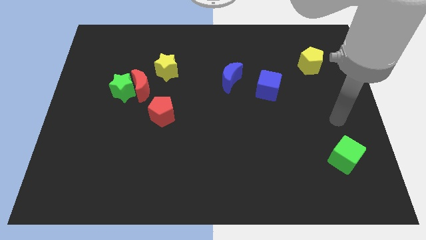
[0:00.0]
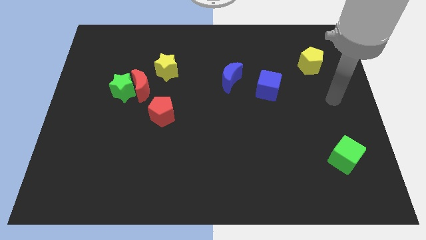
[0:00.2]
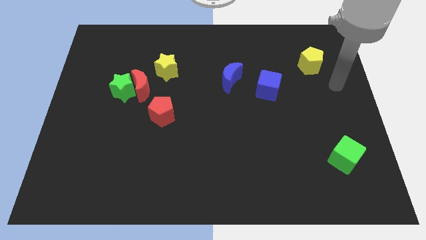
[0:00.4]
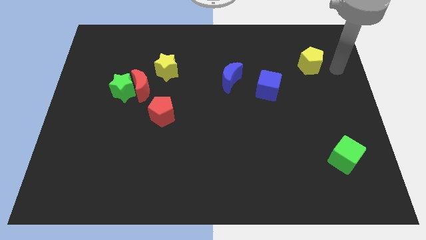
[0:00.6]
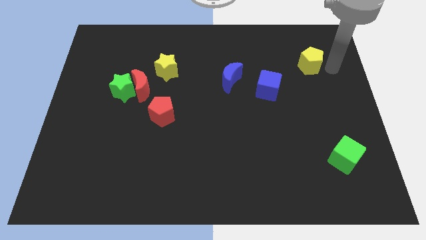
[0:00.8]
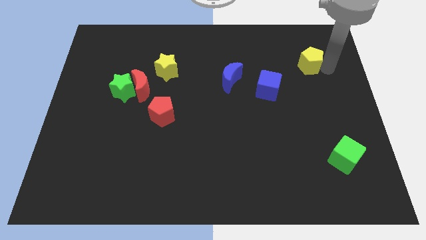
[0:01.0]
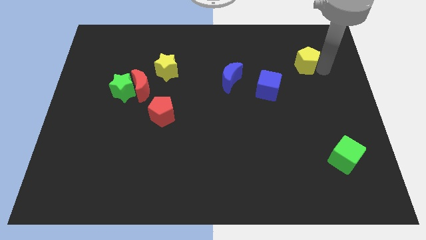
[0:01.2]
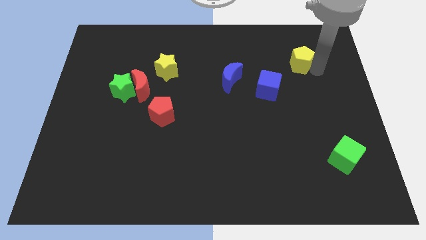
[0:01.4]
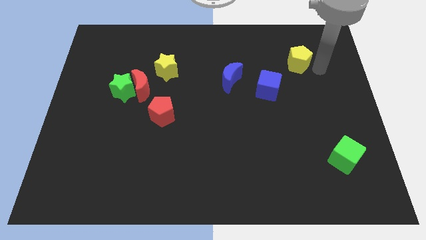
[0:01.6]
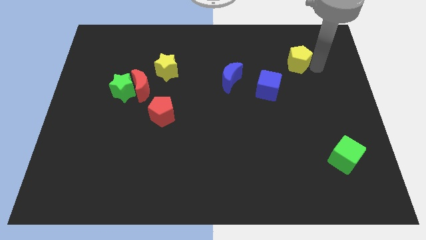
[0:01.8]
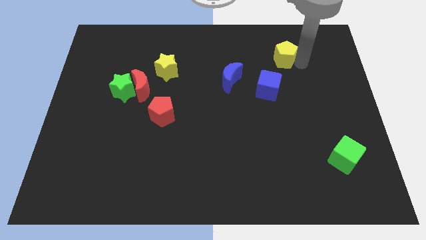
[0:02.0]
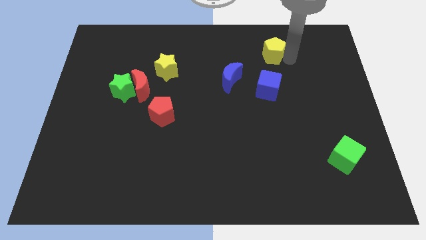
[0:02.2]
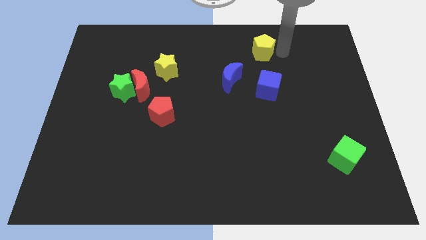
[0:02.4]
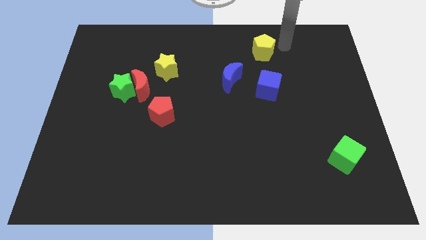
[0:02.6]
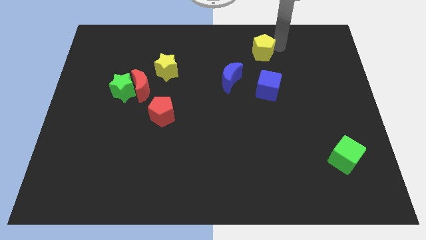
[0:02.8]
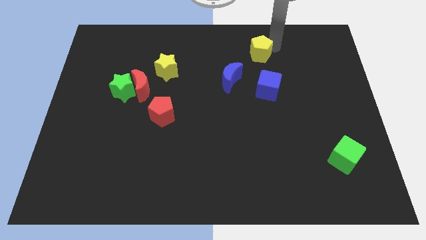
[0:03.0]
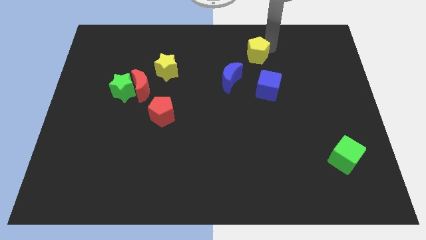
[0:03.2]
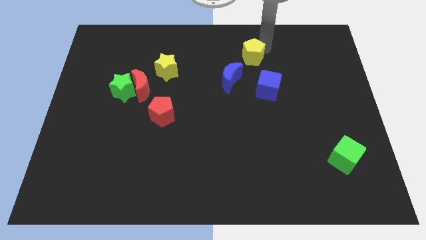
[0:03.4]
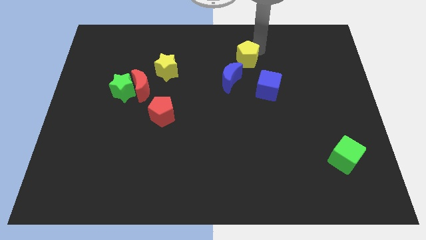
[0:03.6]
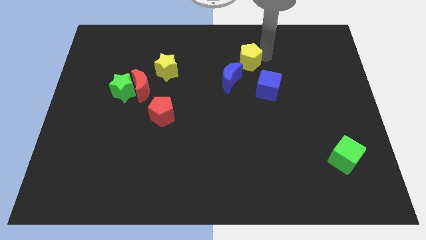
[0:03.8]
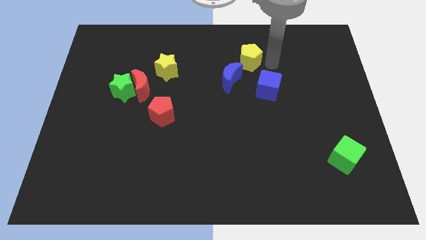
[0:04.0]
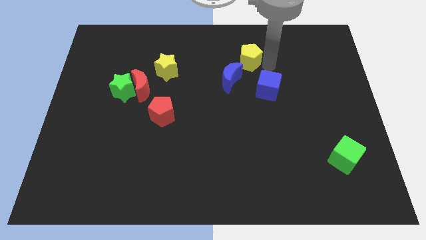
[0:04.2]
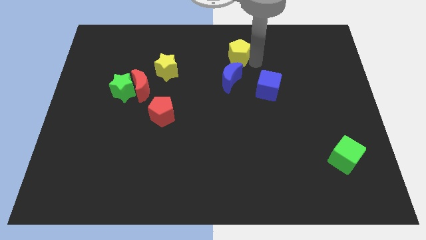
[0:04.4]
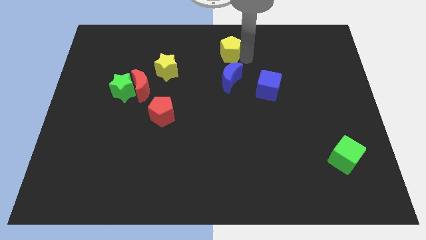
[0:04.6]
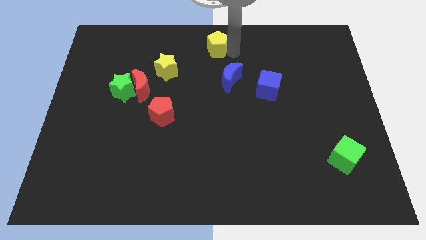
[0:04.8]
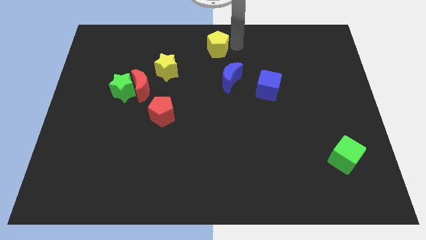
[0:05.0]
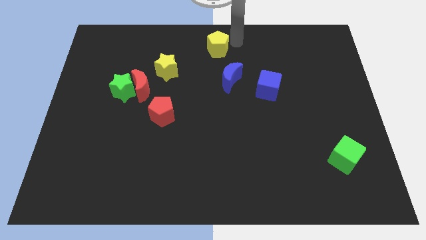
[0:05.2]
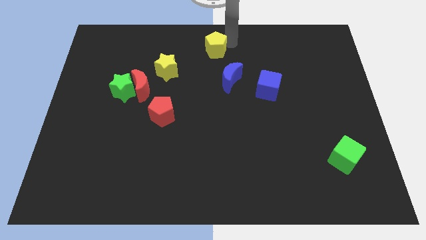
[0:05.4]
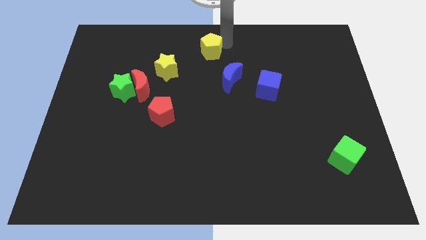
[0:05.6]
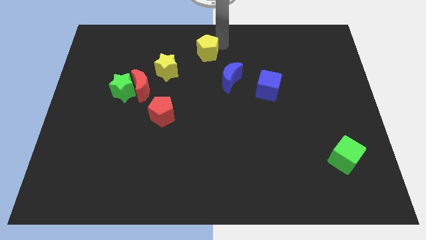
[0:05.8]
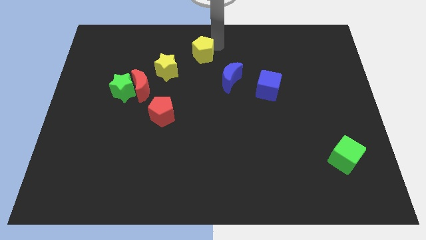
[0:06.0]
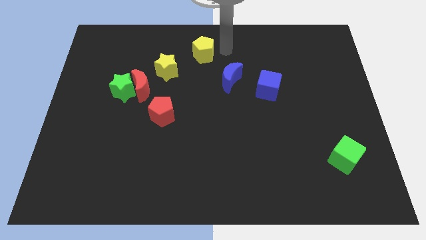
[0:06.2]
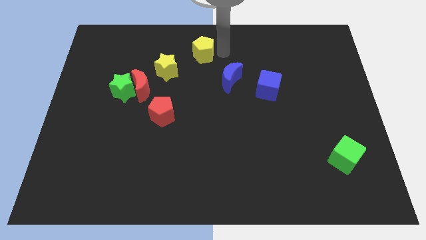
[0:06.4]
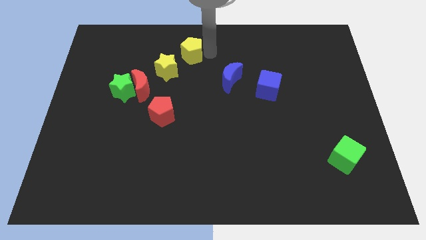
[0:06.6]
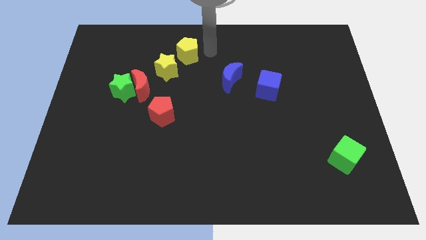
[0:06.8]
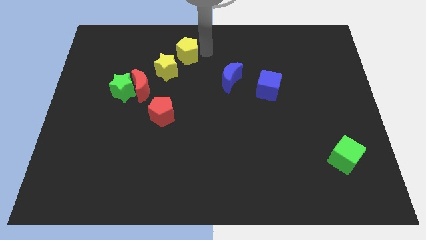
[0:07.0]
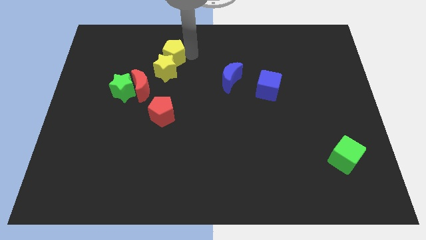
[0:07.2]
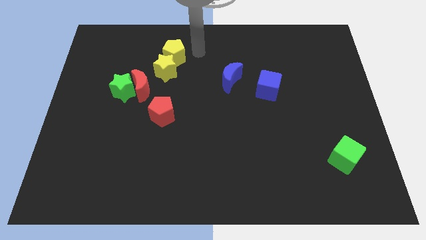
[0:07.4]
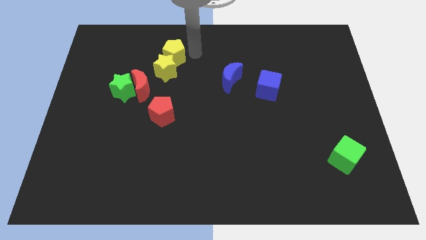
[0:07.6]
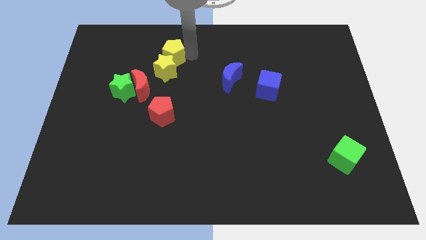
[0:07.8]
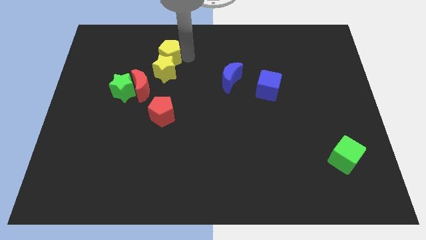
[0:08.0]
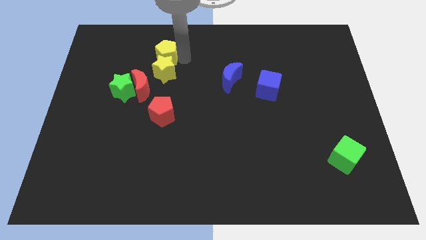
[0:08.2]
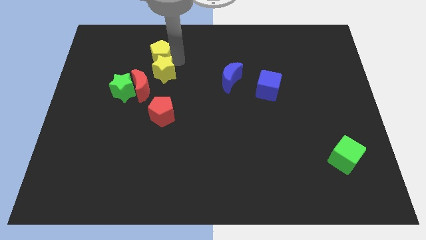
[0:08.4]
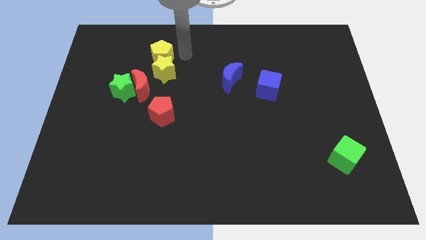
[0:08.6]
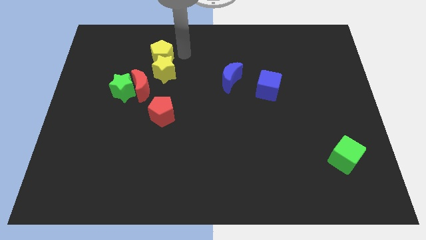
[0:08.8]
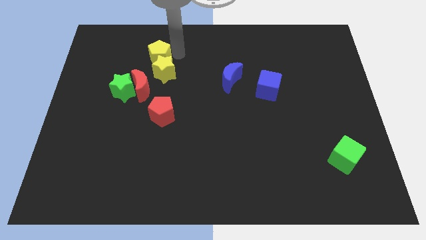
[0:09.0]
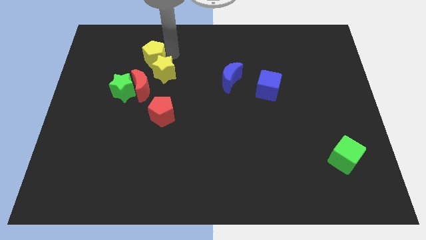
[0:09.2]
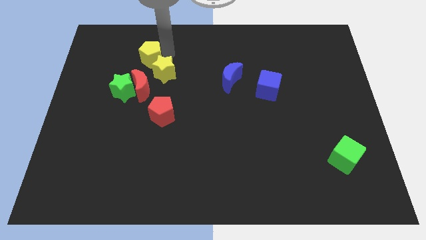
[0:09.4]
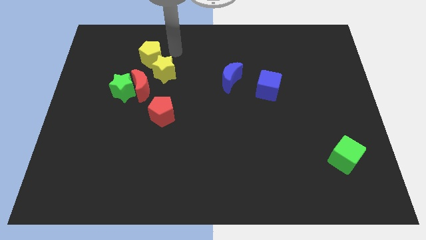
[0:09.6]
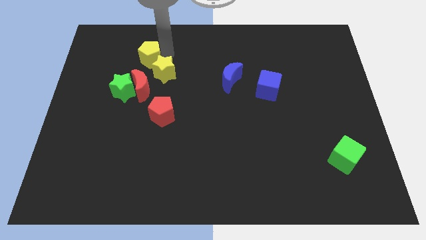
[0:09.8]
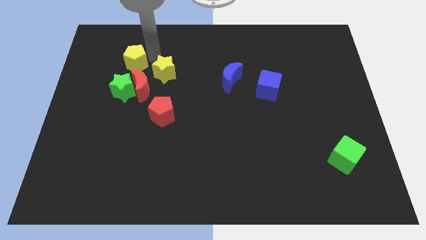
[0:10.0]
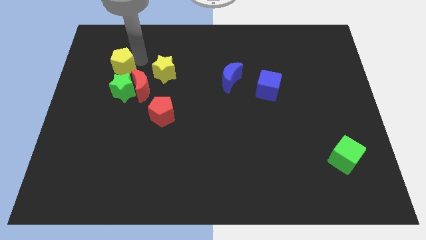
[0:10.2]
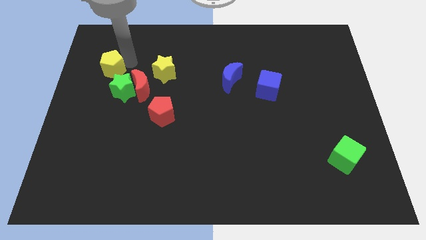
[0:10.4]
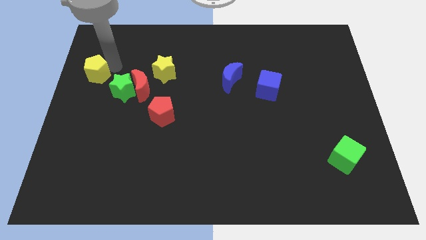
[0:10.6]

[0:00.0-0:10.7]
slide the yellow pentagon to the left side of the board

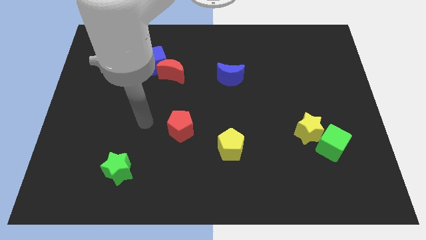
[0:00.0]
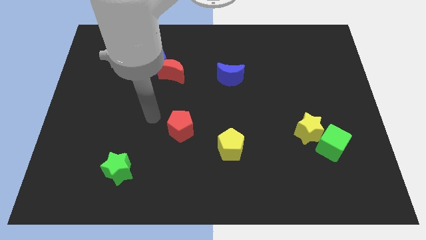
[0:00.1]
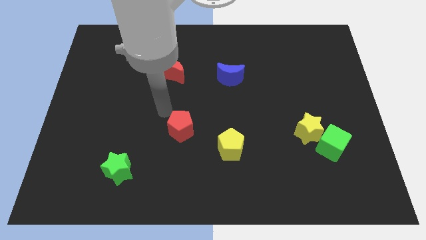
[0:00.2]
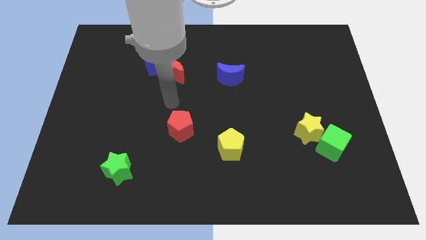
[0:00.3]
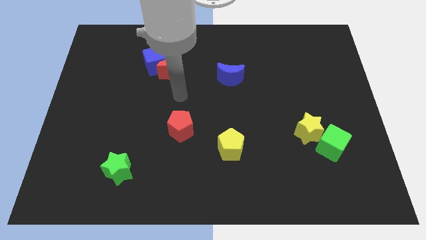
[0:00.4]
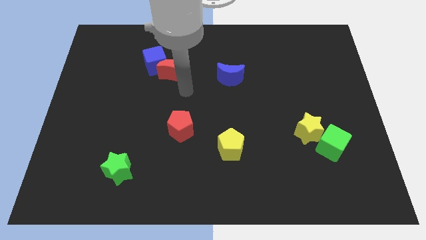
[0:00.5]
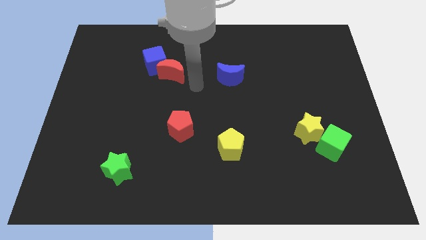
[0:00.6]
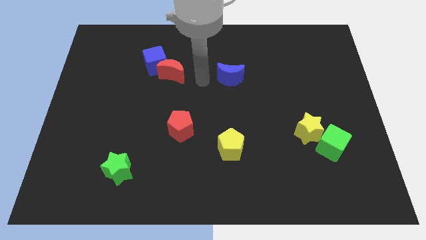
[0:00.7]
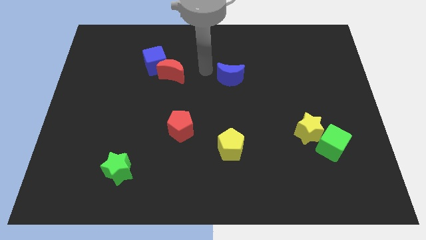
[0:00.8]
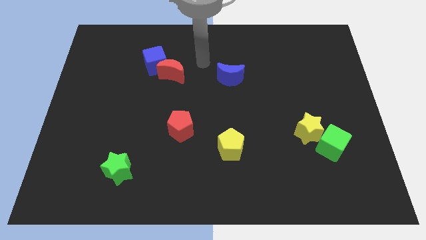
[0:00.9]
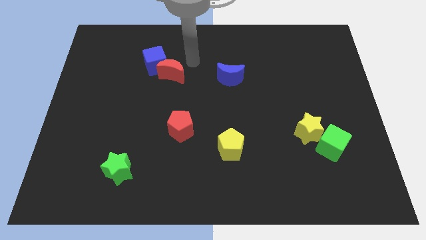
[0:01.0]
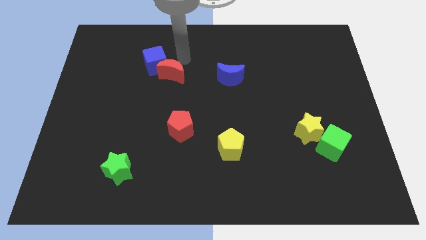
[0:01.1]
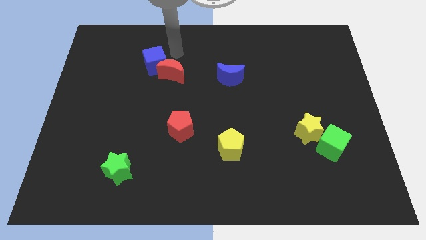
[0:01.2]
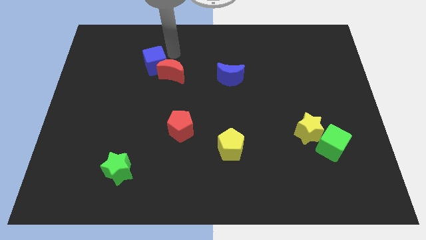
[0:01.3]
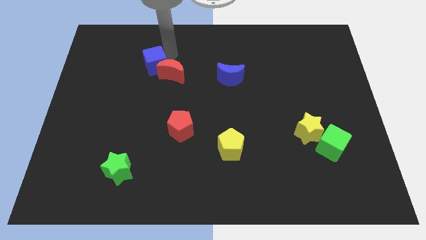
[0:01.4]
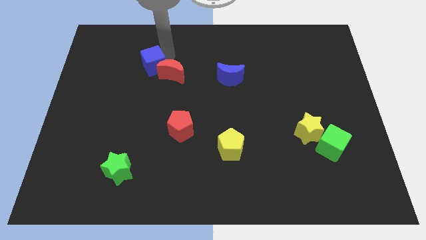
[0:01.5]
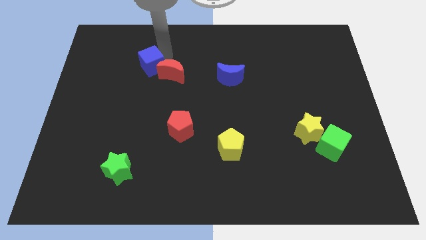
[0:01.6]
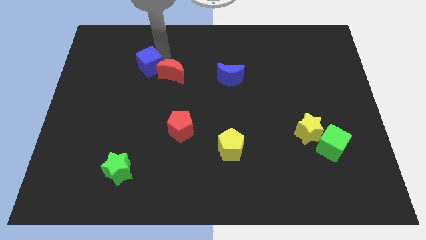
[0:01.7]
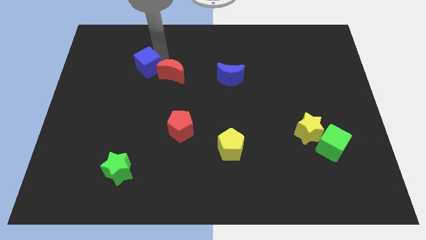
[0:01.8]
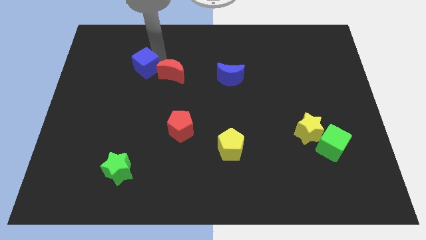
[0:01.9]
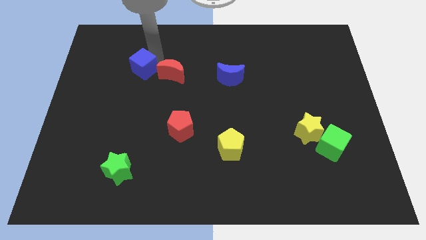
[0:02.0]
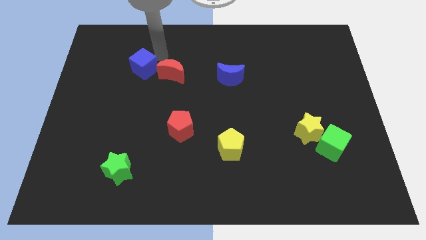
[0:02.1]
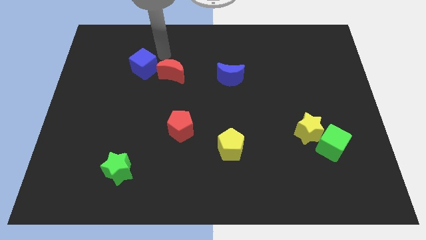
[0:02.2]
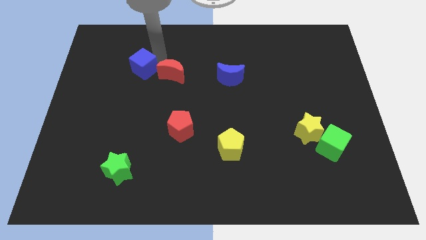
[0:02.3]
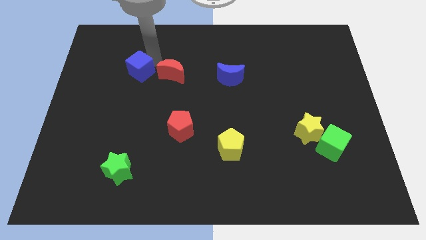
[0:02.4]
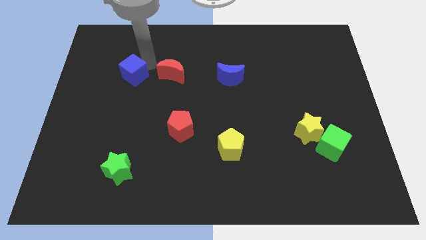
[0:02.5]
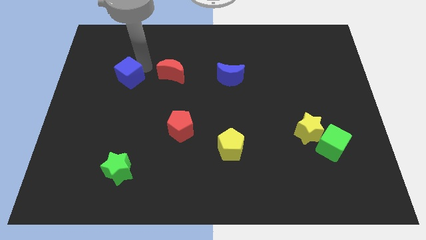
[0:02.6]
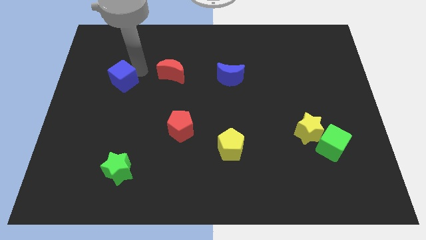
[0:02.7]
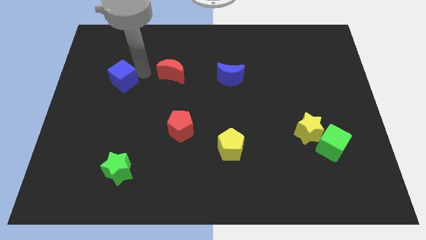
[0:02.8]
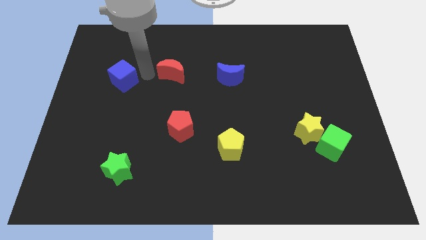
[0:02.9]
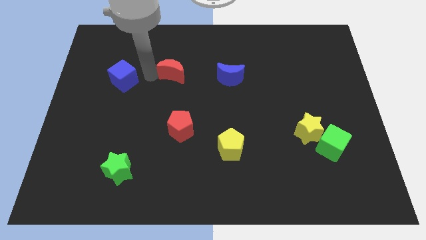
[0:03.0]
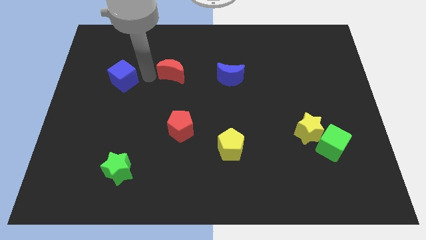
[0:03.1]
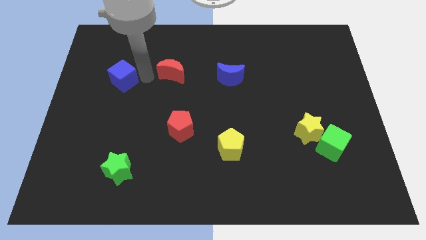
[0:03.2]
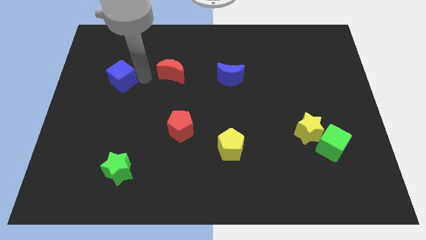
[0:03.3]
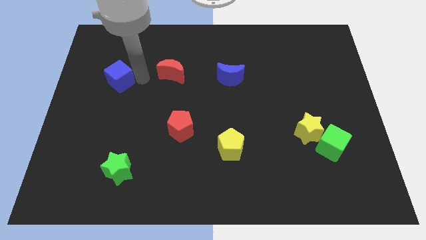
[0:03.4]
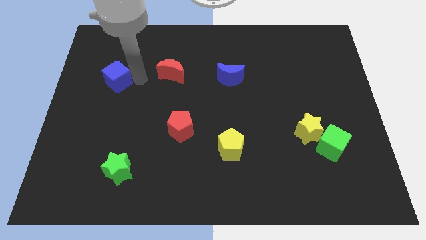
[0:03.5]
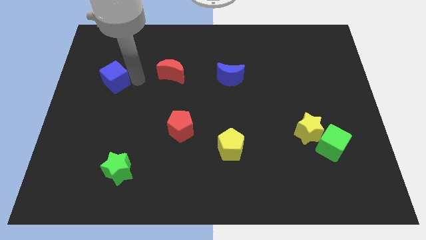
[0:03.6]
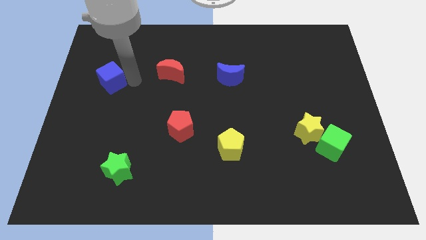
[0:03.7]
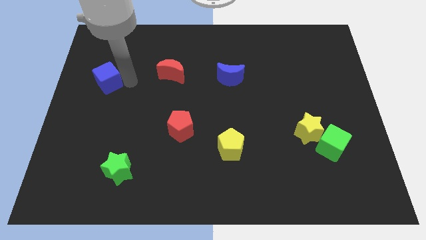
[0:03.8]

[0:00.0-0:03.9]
push the blue cube to the left side of the board
